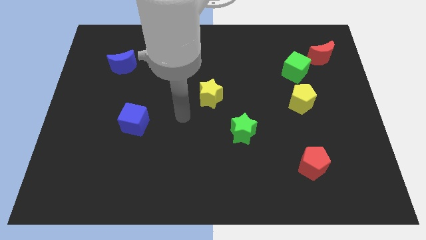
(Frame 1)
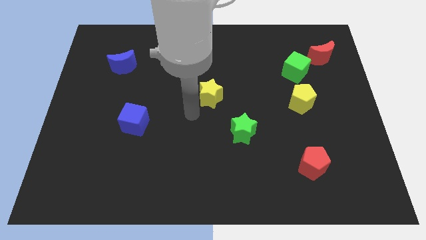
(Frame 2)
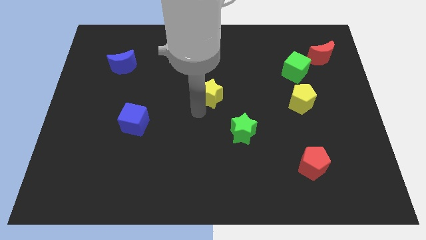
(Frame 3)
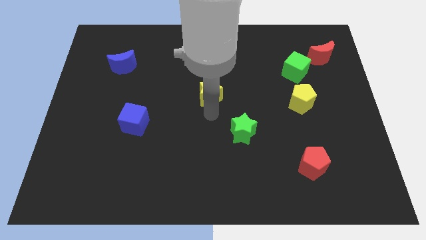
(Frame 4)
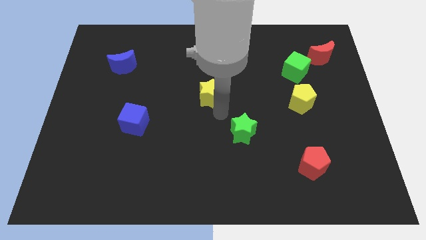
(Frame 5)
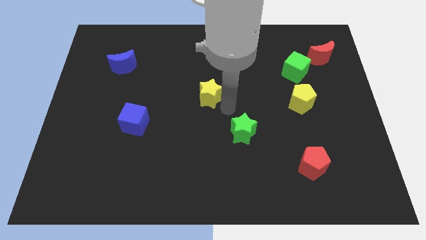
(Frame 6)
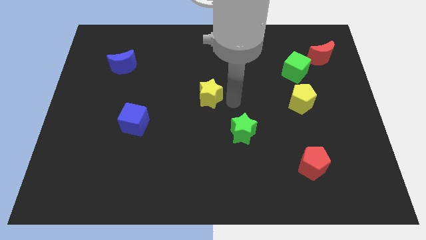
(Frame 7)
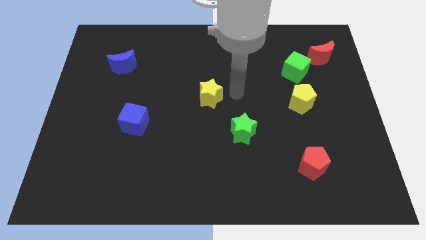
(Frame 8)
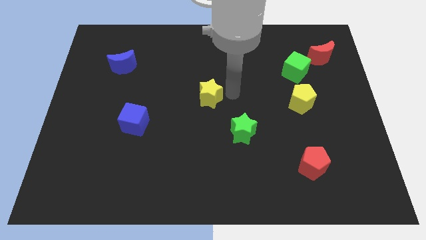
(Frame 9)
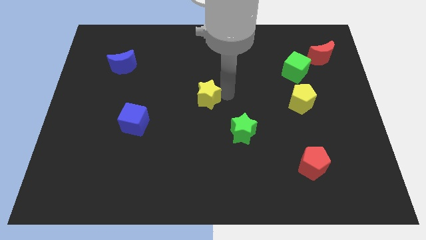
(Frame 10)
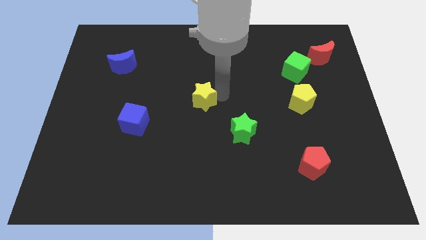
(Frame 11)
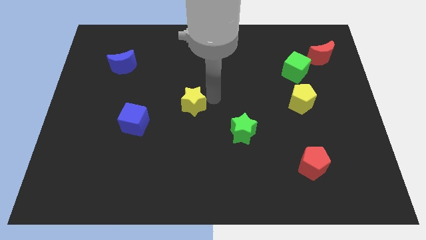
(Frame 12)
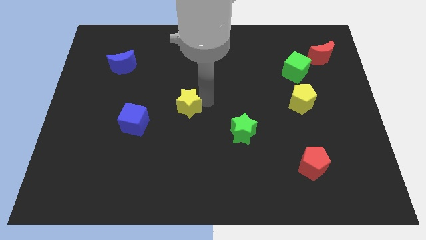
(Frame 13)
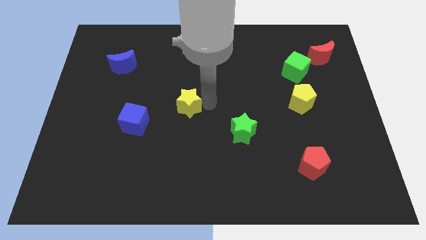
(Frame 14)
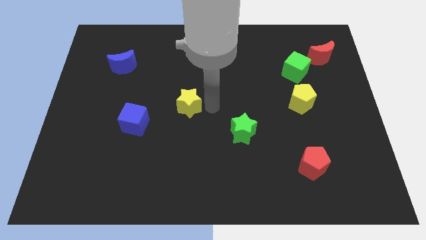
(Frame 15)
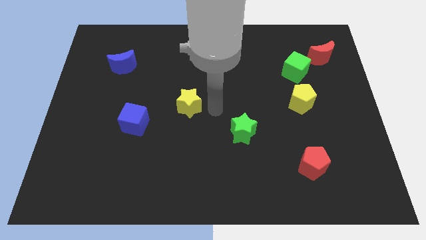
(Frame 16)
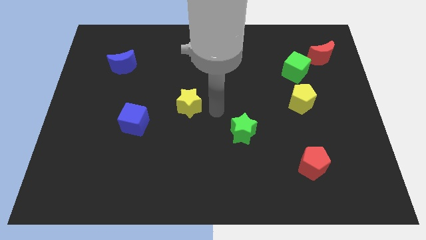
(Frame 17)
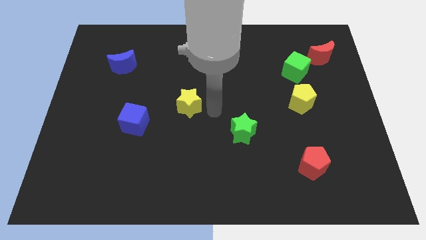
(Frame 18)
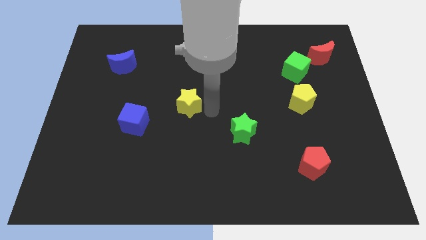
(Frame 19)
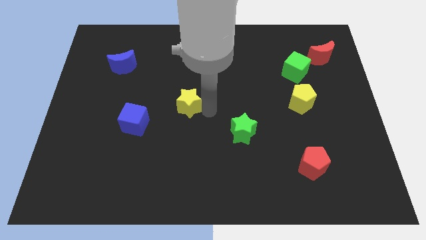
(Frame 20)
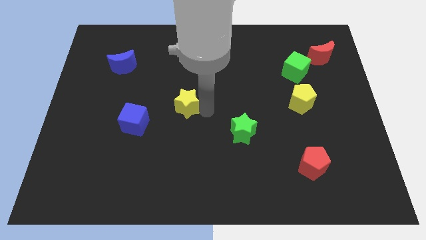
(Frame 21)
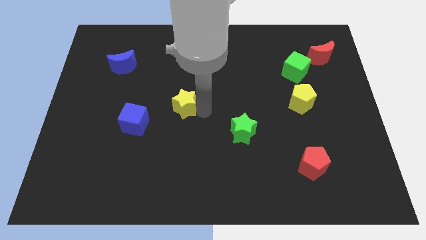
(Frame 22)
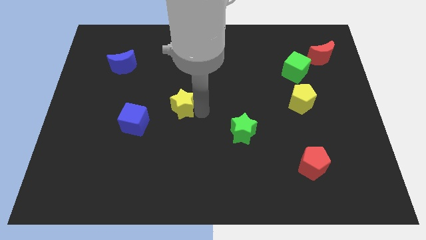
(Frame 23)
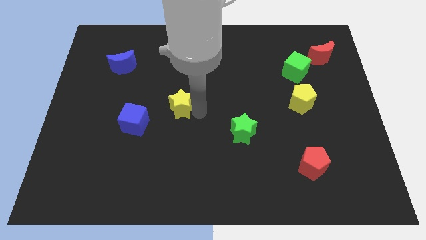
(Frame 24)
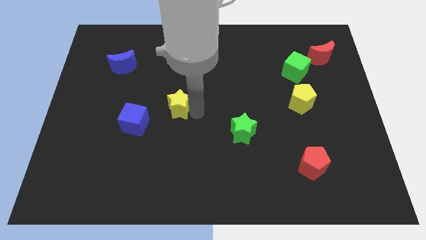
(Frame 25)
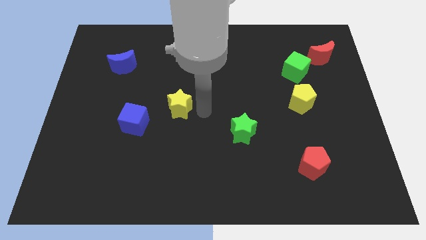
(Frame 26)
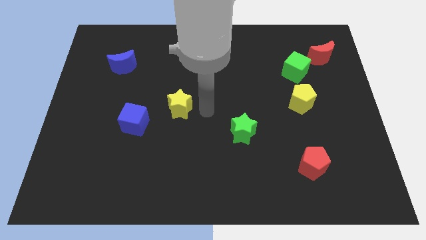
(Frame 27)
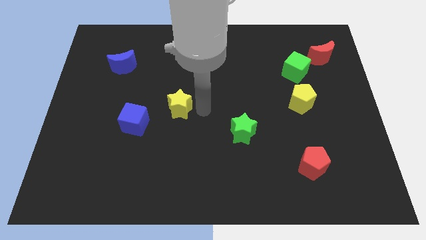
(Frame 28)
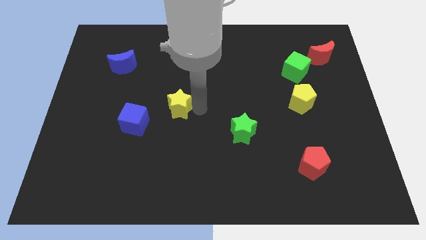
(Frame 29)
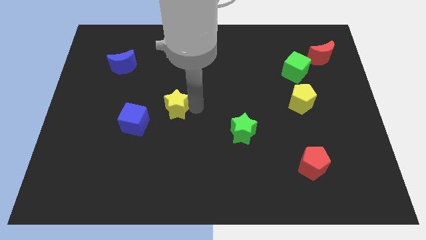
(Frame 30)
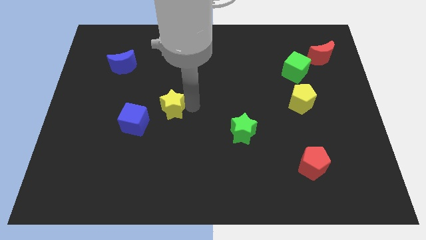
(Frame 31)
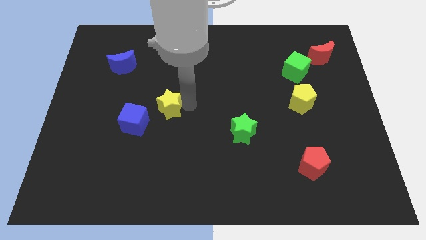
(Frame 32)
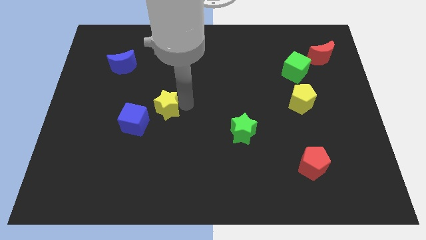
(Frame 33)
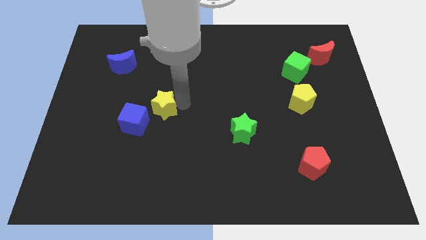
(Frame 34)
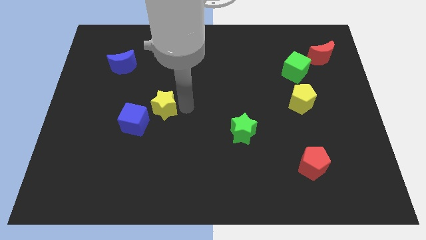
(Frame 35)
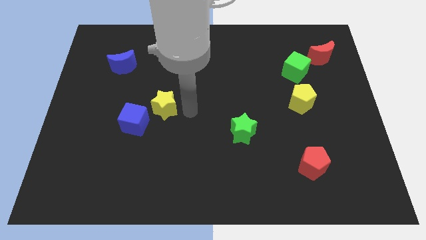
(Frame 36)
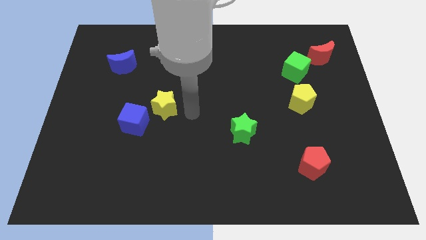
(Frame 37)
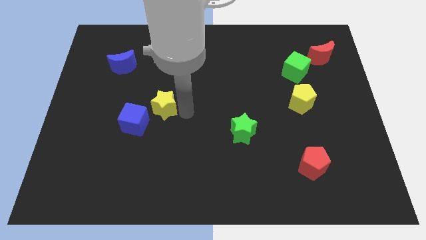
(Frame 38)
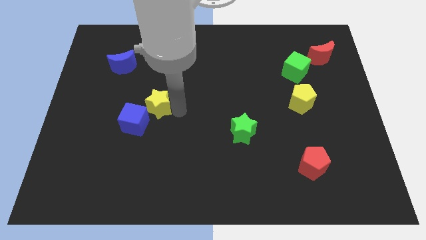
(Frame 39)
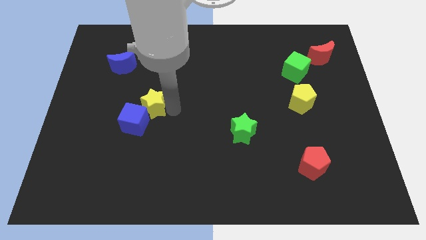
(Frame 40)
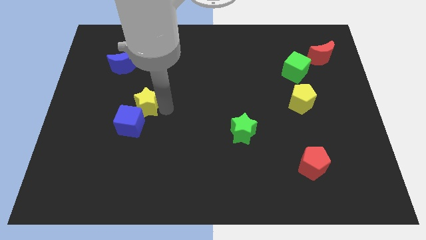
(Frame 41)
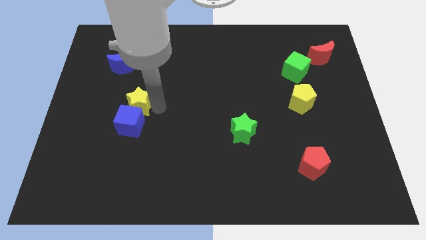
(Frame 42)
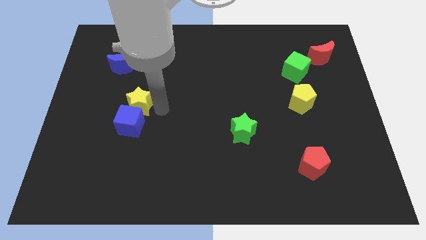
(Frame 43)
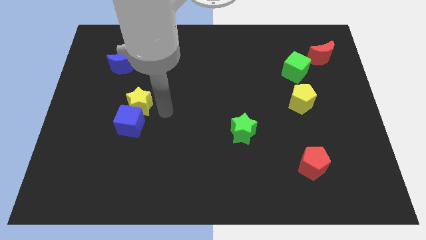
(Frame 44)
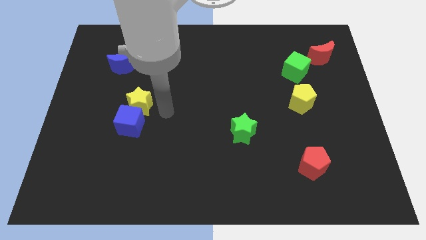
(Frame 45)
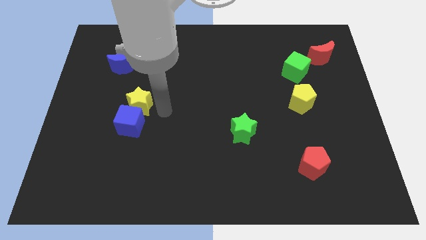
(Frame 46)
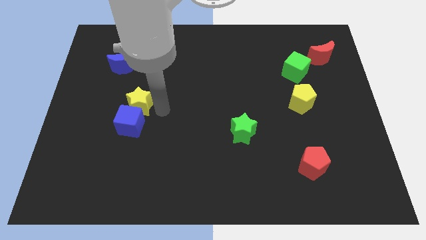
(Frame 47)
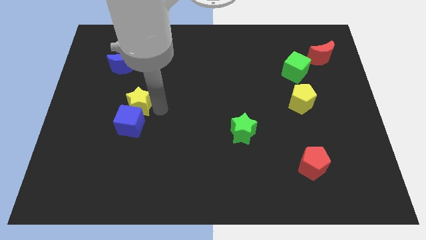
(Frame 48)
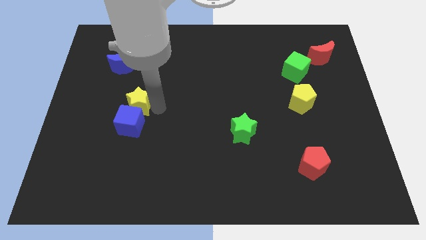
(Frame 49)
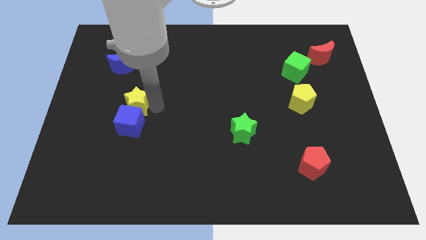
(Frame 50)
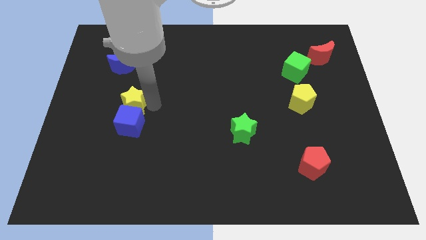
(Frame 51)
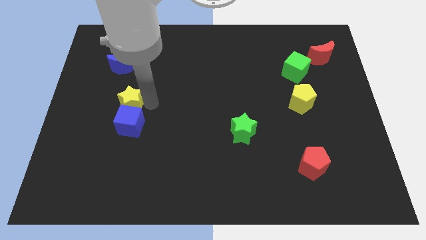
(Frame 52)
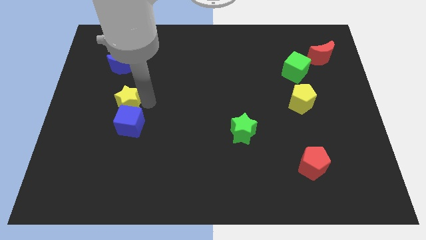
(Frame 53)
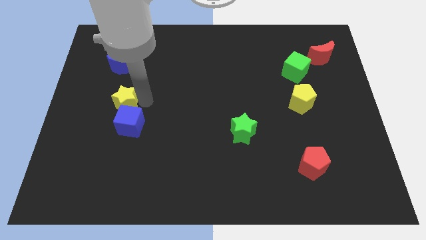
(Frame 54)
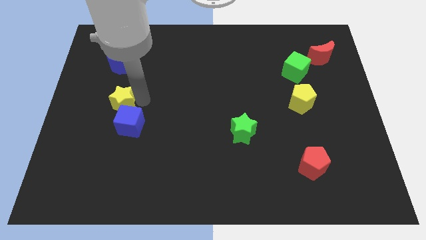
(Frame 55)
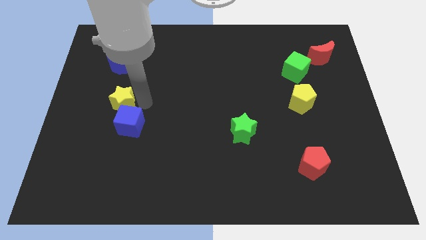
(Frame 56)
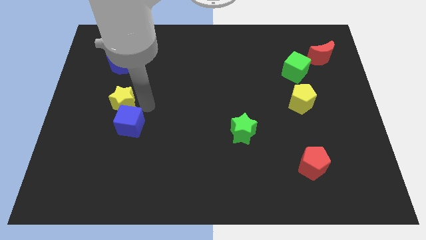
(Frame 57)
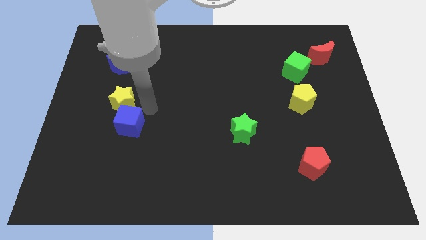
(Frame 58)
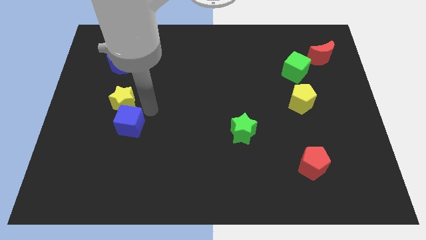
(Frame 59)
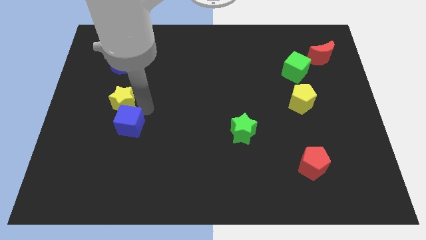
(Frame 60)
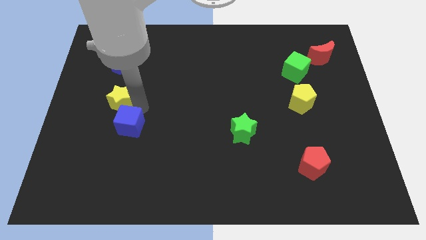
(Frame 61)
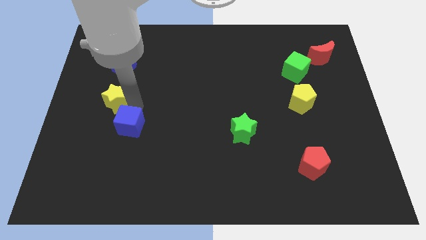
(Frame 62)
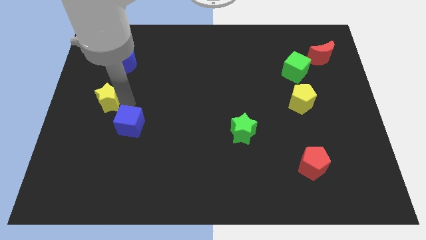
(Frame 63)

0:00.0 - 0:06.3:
move the yellow star to the center left
